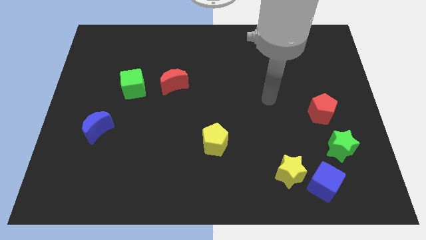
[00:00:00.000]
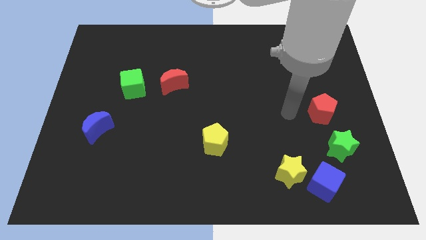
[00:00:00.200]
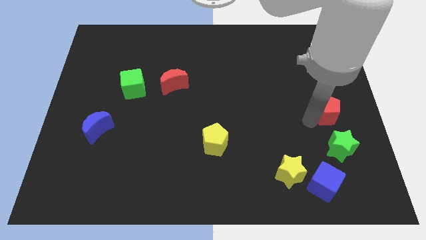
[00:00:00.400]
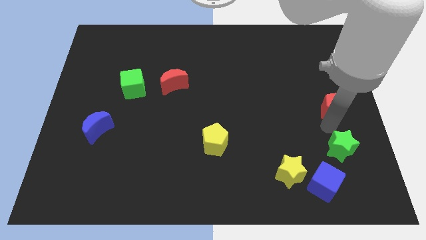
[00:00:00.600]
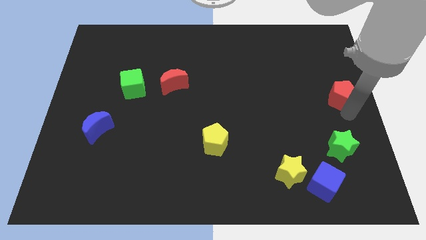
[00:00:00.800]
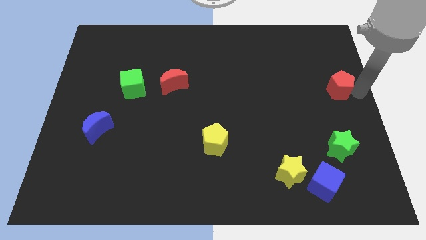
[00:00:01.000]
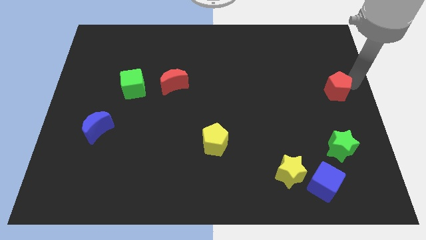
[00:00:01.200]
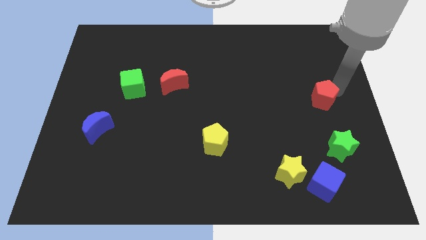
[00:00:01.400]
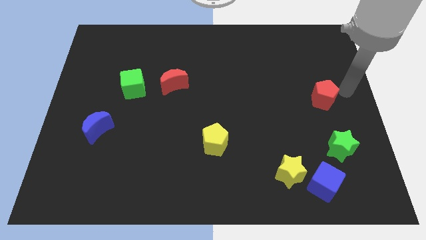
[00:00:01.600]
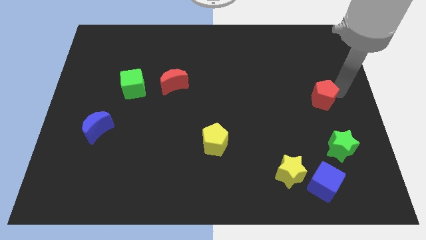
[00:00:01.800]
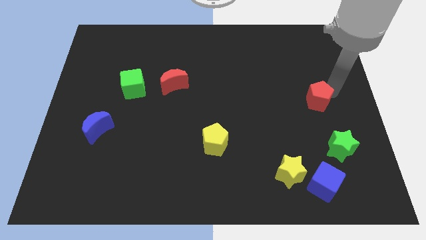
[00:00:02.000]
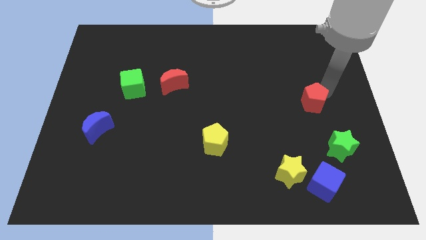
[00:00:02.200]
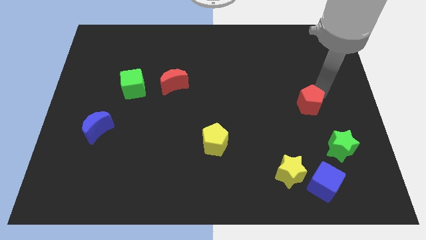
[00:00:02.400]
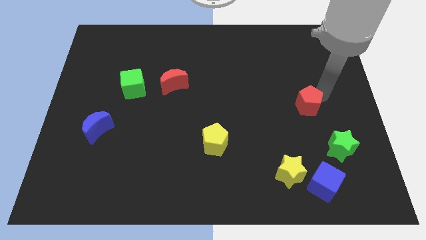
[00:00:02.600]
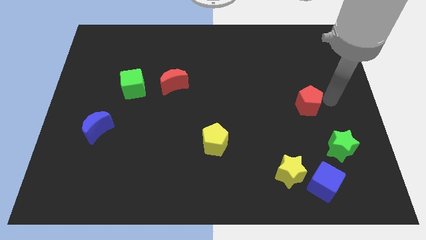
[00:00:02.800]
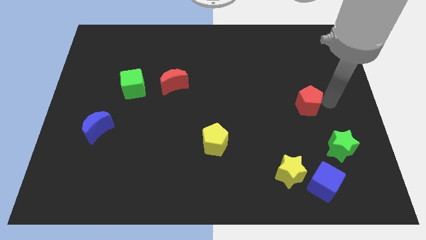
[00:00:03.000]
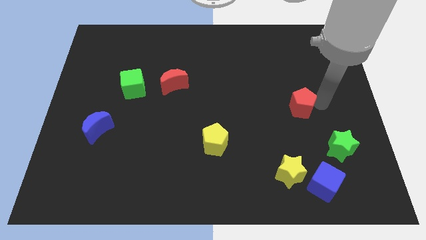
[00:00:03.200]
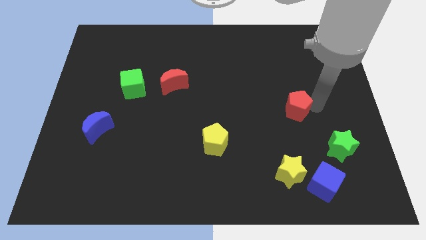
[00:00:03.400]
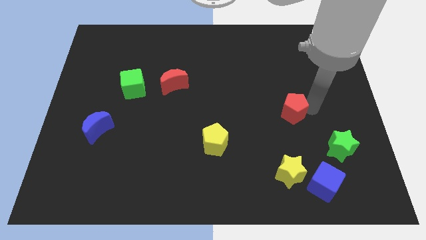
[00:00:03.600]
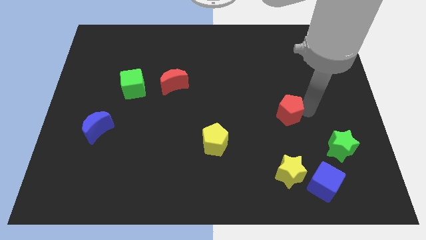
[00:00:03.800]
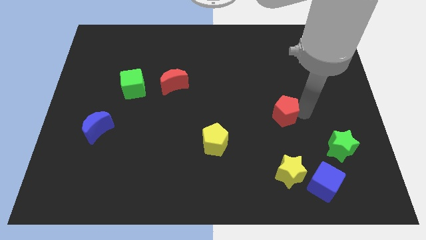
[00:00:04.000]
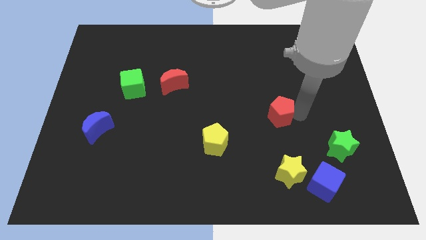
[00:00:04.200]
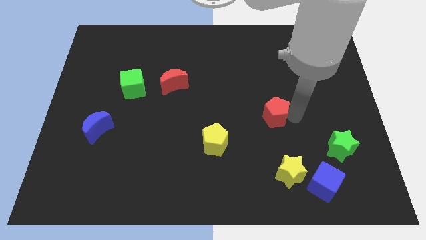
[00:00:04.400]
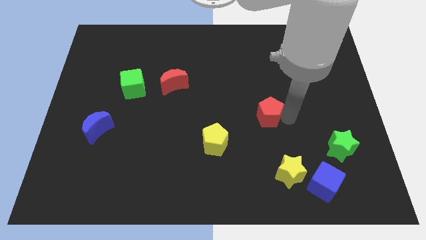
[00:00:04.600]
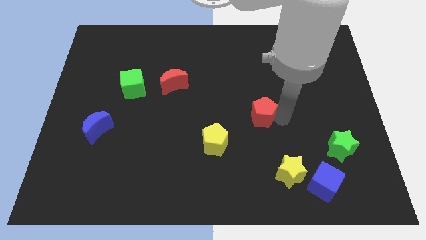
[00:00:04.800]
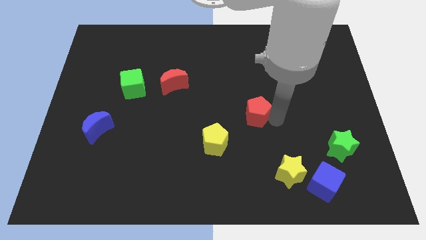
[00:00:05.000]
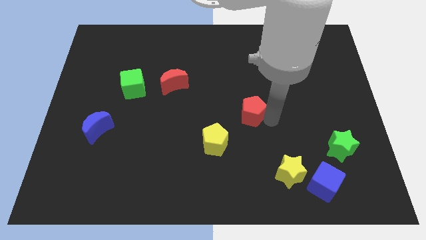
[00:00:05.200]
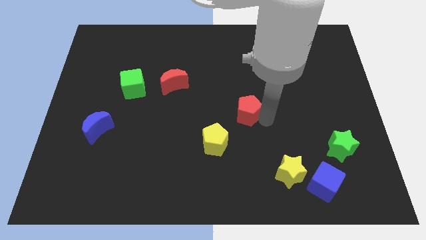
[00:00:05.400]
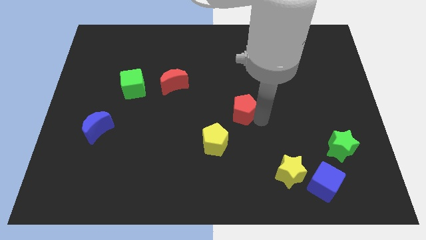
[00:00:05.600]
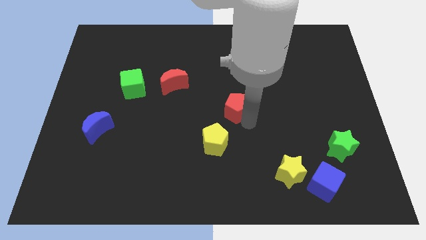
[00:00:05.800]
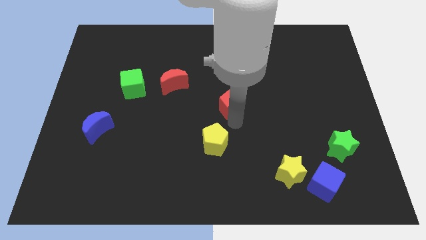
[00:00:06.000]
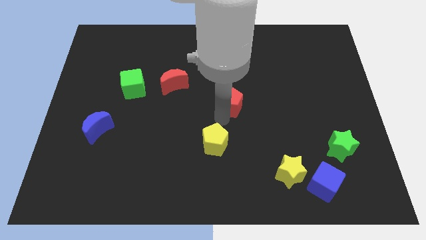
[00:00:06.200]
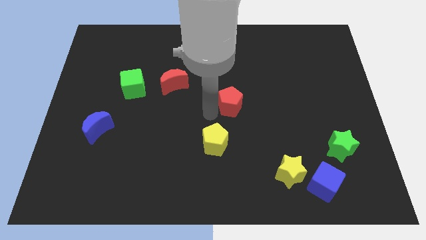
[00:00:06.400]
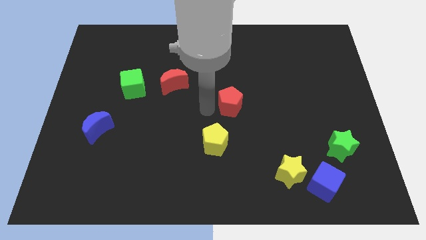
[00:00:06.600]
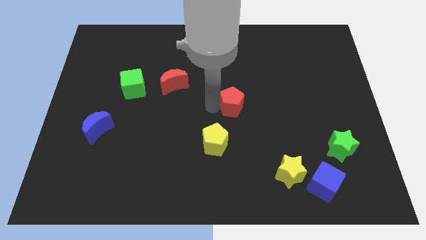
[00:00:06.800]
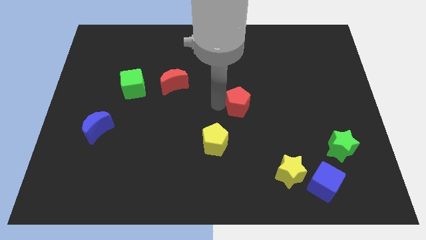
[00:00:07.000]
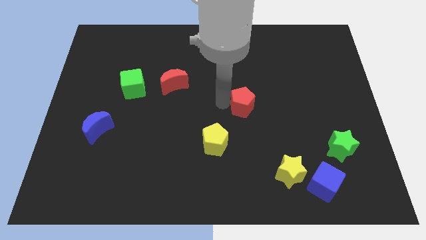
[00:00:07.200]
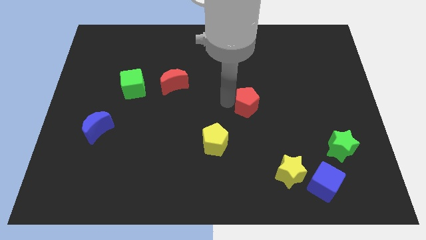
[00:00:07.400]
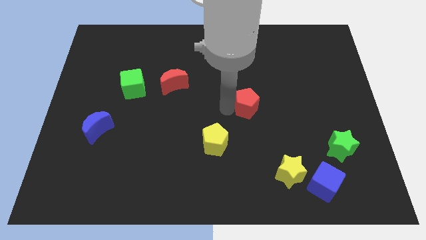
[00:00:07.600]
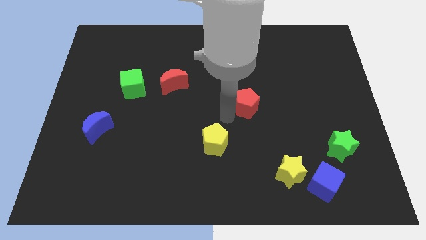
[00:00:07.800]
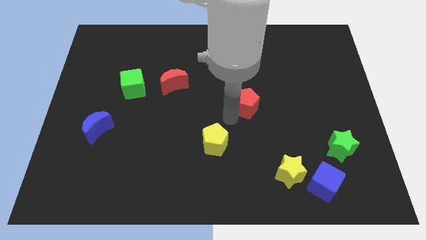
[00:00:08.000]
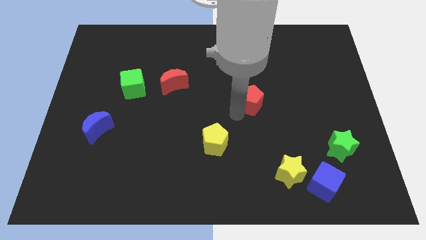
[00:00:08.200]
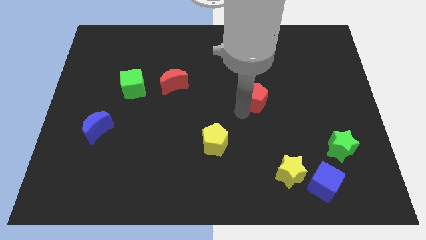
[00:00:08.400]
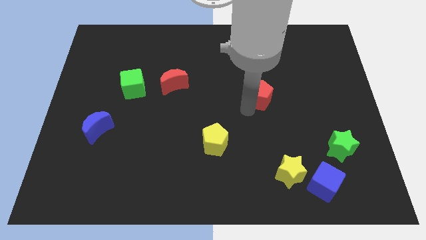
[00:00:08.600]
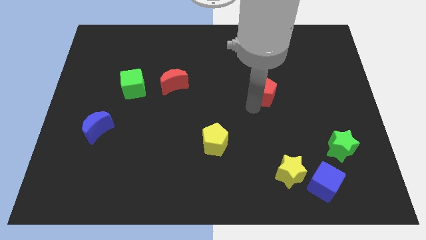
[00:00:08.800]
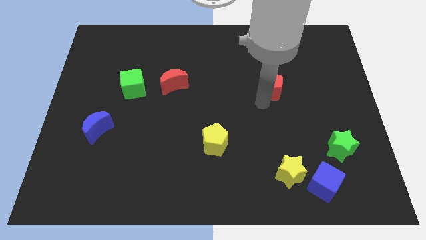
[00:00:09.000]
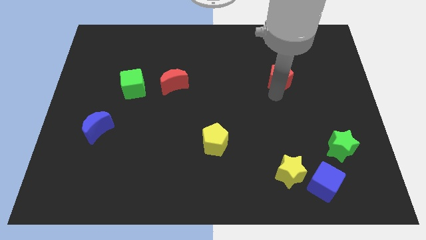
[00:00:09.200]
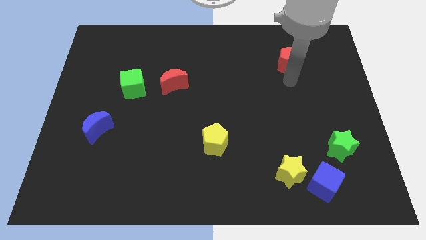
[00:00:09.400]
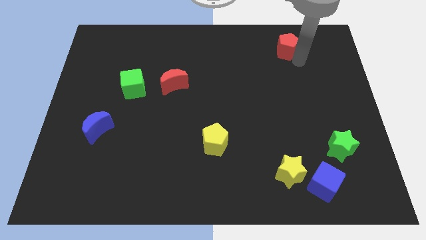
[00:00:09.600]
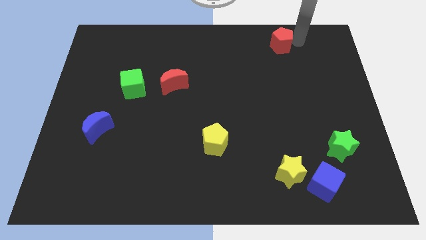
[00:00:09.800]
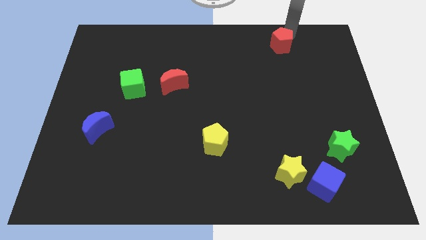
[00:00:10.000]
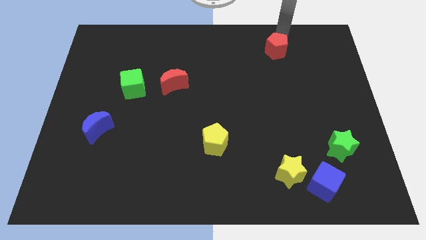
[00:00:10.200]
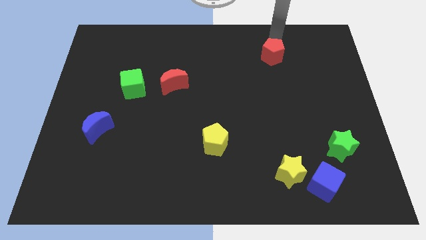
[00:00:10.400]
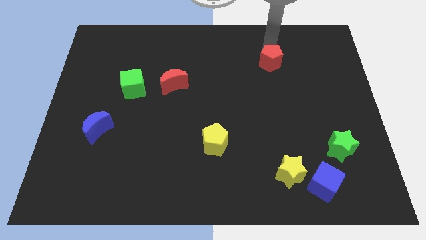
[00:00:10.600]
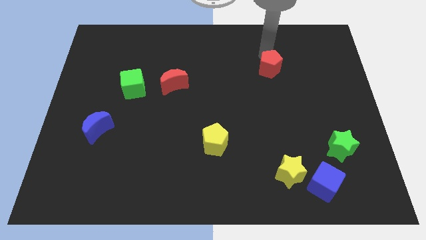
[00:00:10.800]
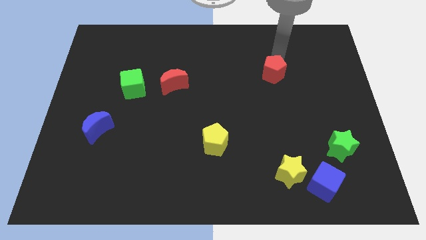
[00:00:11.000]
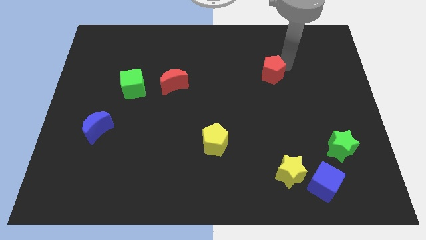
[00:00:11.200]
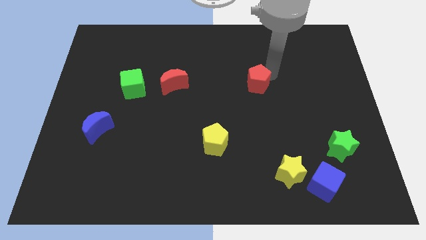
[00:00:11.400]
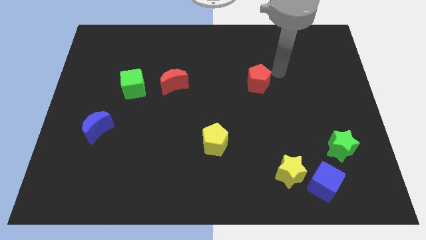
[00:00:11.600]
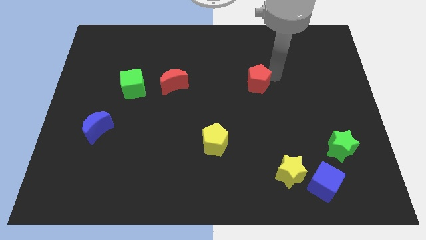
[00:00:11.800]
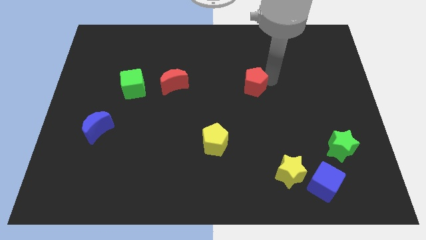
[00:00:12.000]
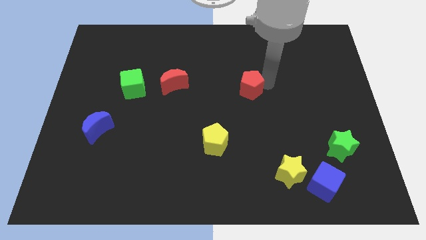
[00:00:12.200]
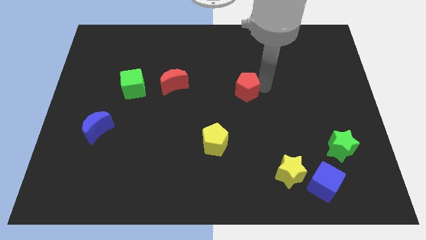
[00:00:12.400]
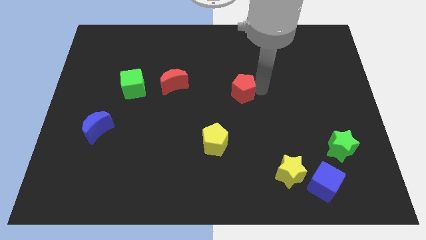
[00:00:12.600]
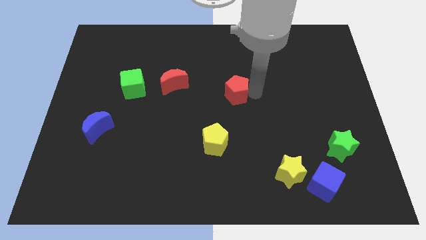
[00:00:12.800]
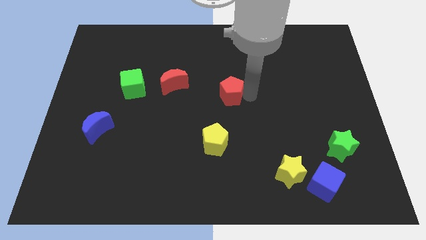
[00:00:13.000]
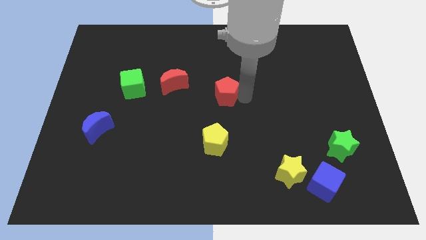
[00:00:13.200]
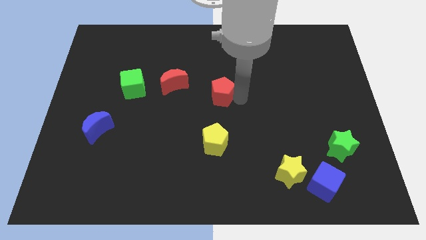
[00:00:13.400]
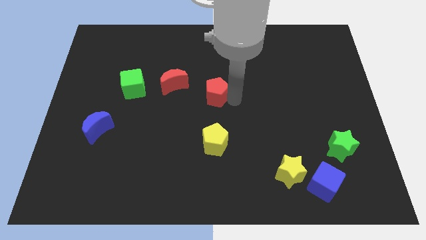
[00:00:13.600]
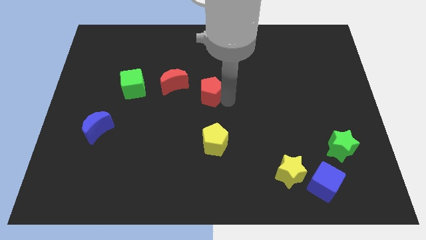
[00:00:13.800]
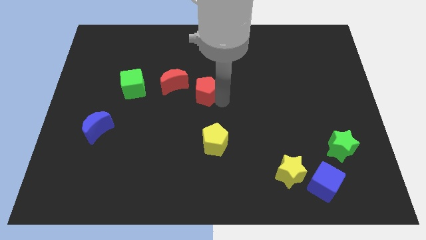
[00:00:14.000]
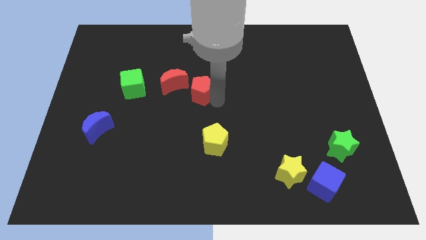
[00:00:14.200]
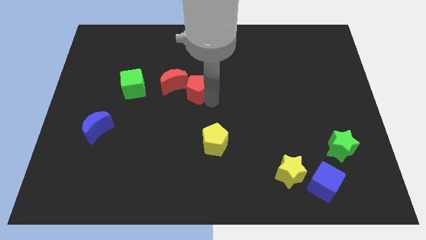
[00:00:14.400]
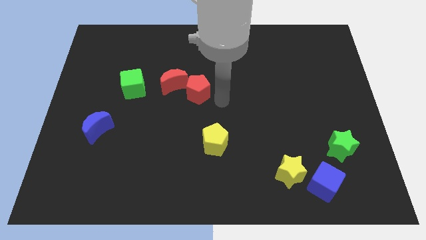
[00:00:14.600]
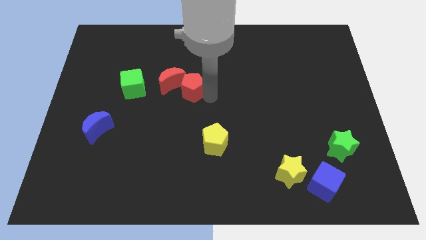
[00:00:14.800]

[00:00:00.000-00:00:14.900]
put the red pentagon next to the red moon

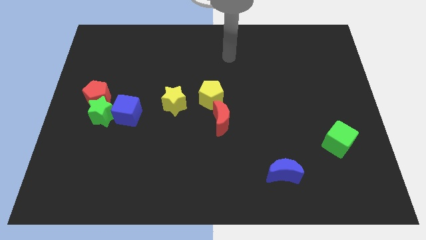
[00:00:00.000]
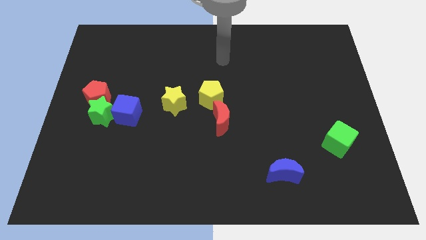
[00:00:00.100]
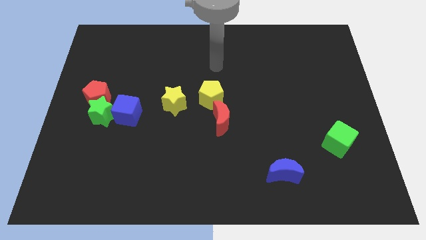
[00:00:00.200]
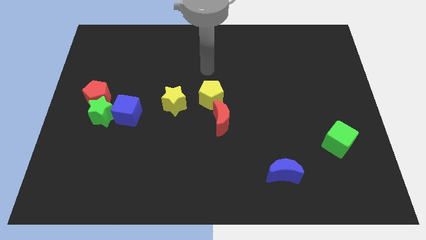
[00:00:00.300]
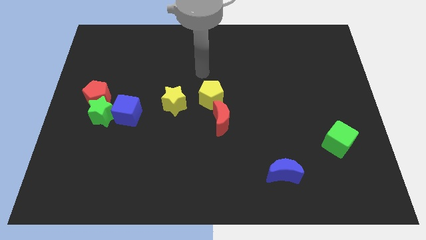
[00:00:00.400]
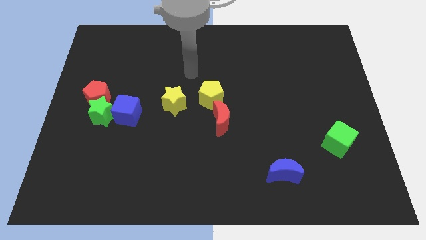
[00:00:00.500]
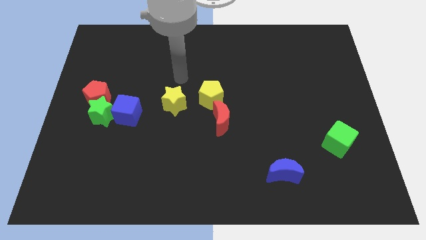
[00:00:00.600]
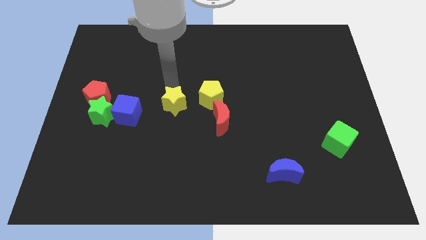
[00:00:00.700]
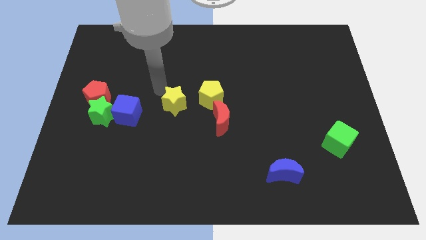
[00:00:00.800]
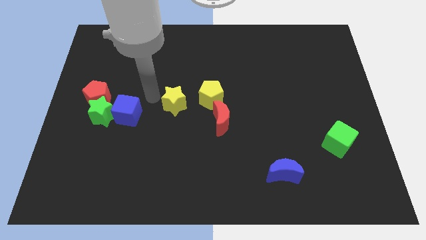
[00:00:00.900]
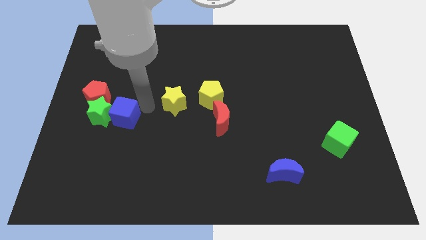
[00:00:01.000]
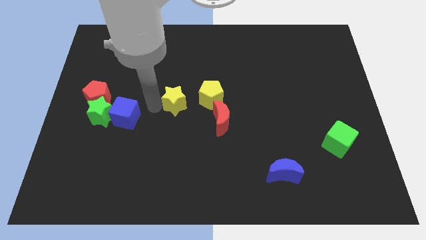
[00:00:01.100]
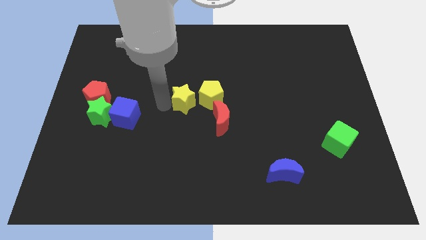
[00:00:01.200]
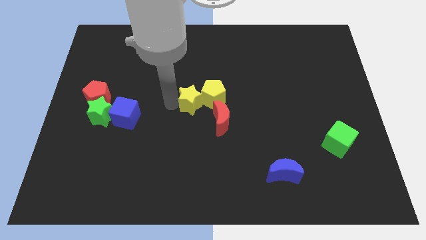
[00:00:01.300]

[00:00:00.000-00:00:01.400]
slide the yellow star next to the yellow pentagon
